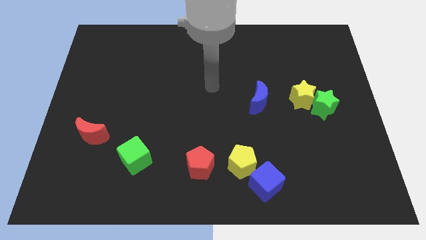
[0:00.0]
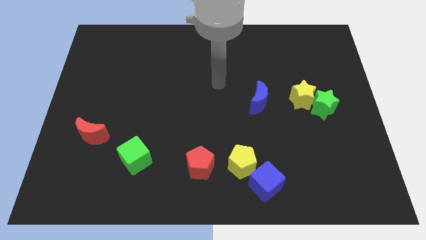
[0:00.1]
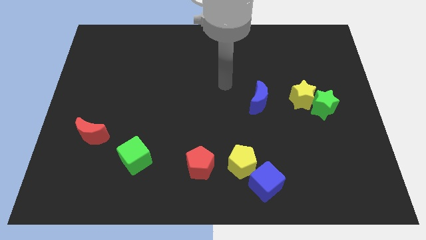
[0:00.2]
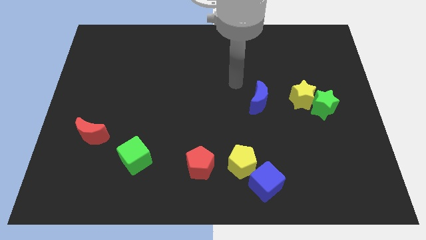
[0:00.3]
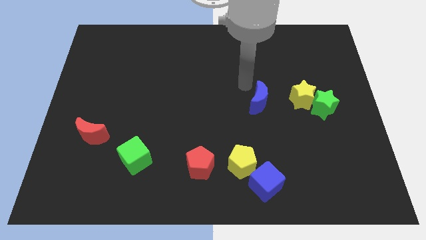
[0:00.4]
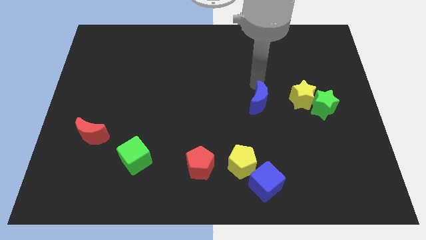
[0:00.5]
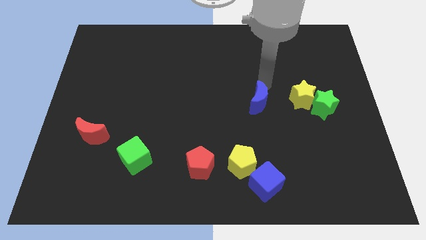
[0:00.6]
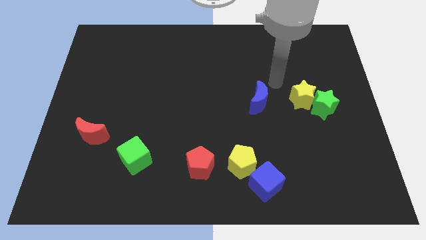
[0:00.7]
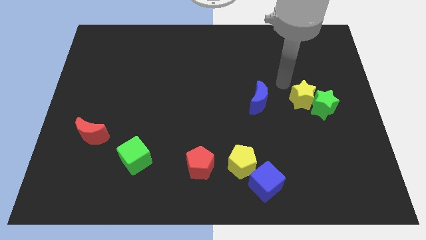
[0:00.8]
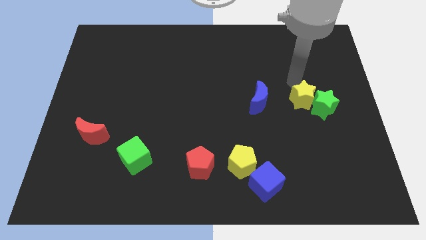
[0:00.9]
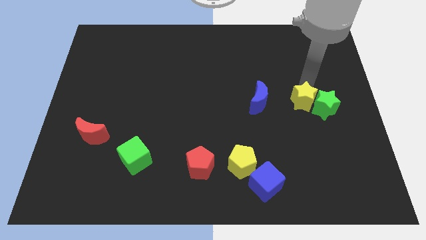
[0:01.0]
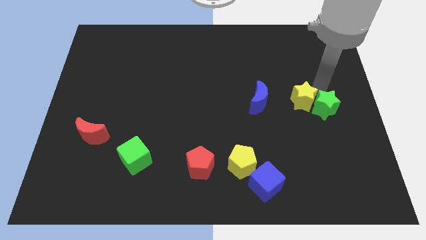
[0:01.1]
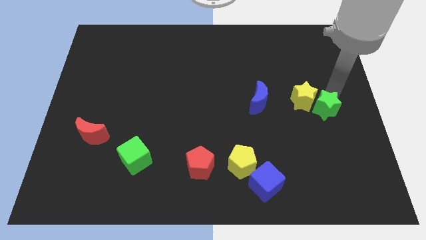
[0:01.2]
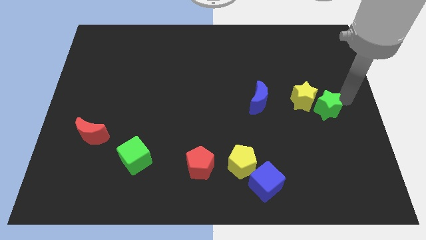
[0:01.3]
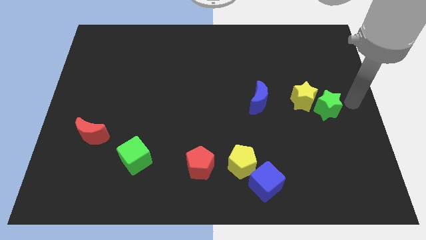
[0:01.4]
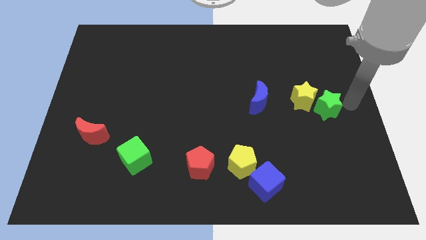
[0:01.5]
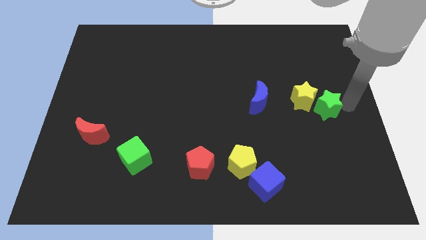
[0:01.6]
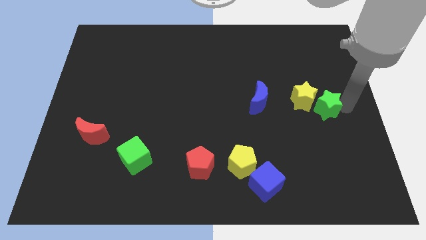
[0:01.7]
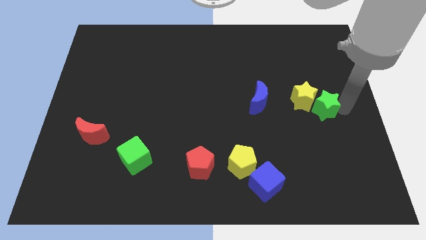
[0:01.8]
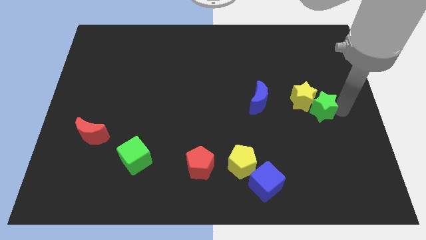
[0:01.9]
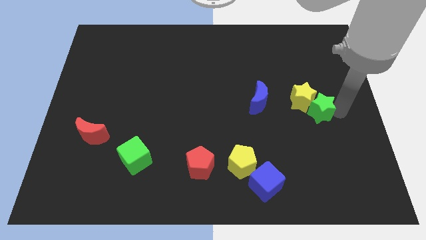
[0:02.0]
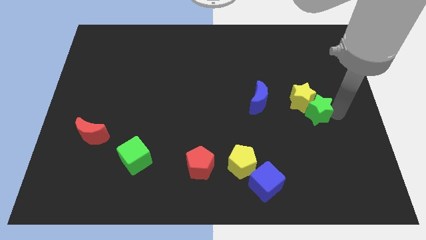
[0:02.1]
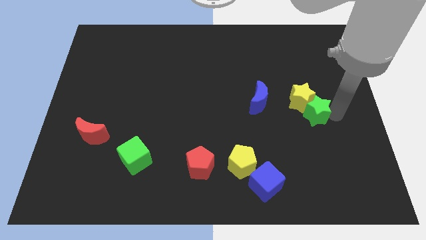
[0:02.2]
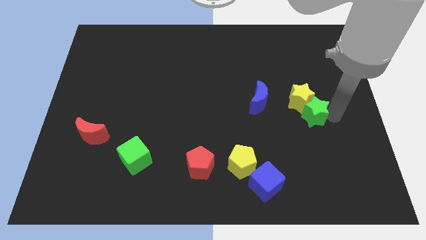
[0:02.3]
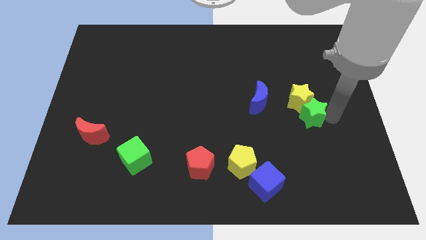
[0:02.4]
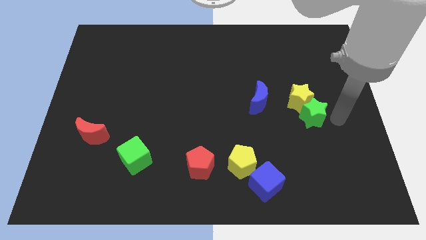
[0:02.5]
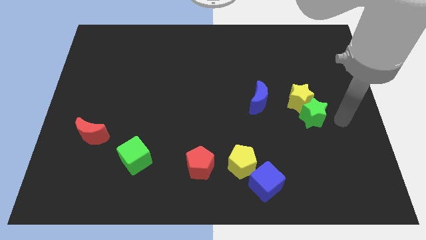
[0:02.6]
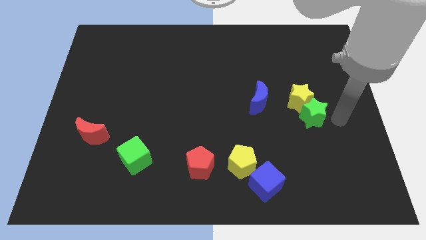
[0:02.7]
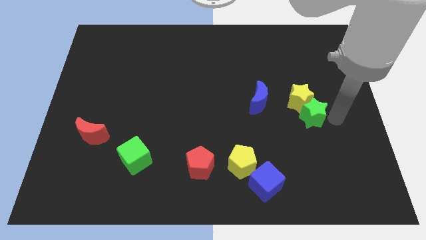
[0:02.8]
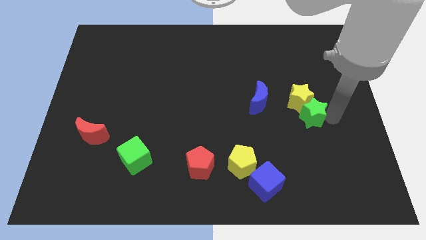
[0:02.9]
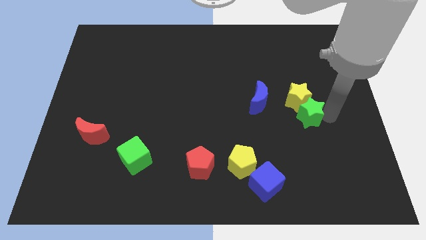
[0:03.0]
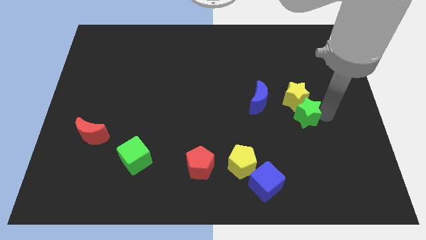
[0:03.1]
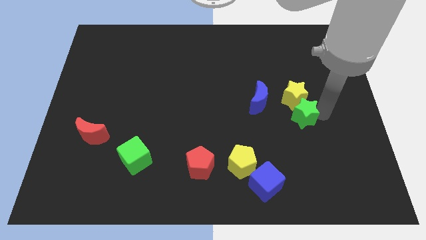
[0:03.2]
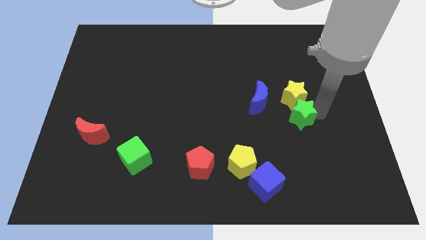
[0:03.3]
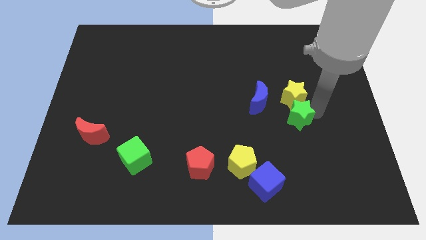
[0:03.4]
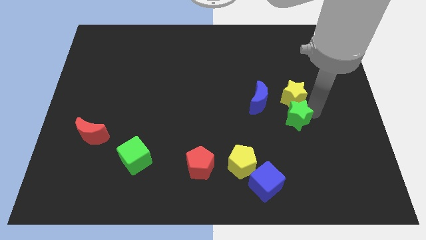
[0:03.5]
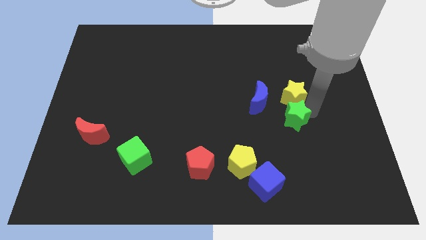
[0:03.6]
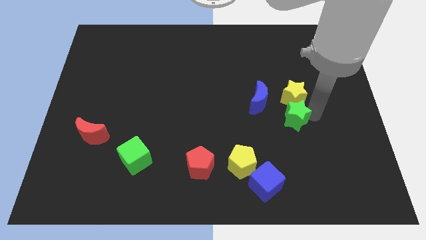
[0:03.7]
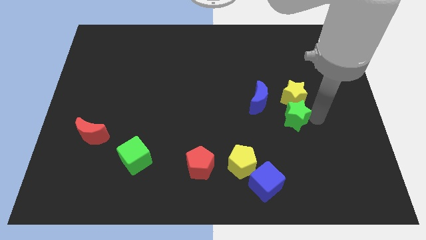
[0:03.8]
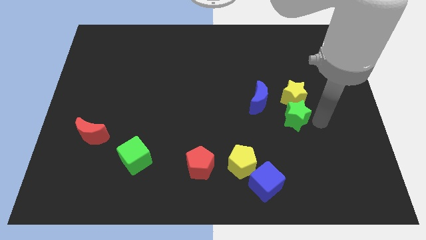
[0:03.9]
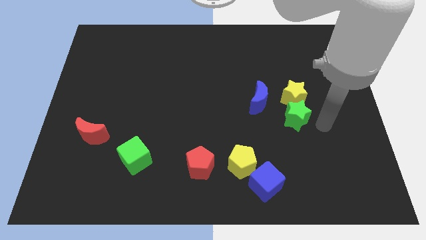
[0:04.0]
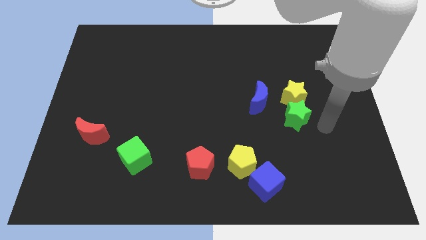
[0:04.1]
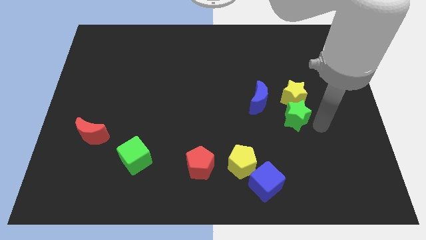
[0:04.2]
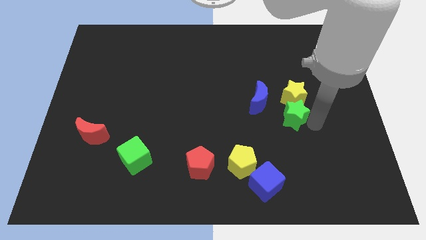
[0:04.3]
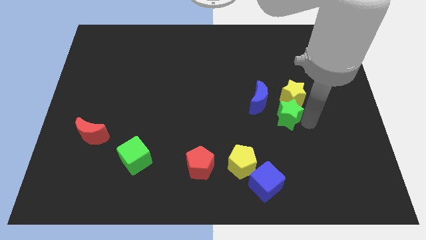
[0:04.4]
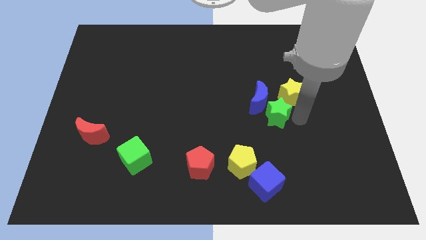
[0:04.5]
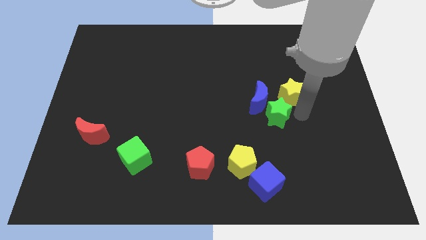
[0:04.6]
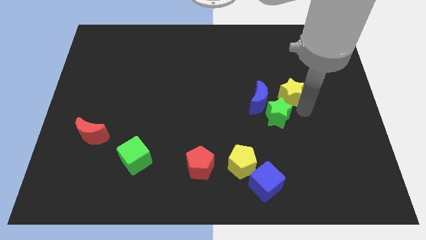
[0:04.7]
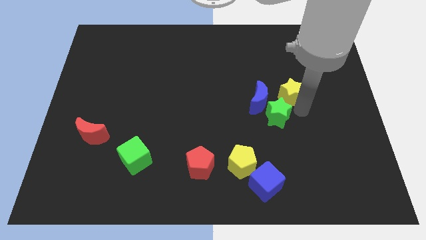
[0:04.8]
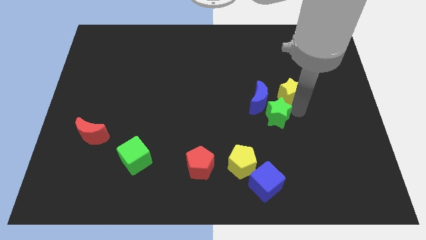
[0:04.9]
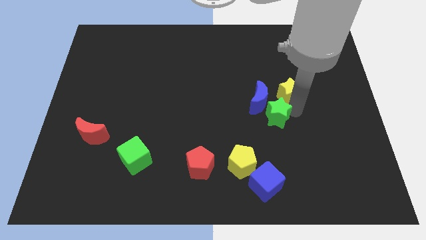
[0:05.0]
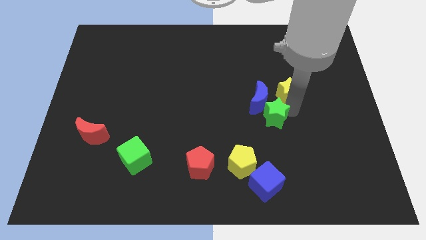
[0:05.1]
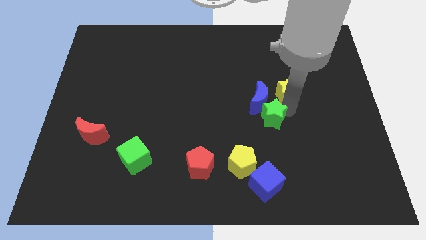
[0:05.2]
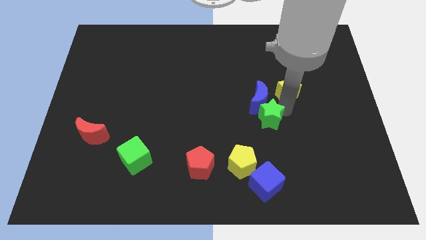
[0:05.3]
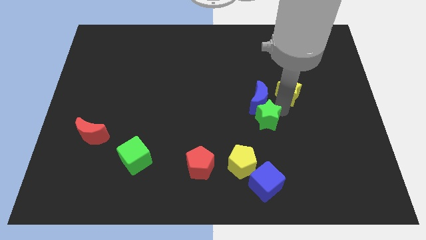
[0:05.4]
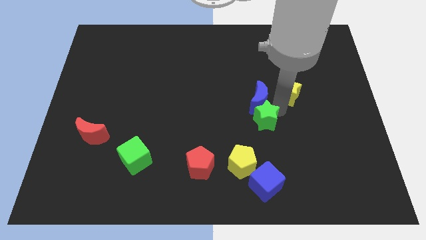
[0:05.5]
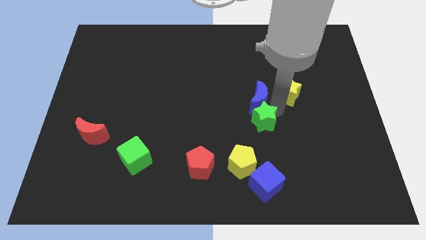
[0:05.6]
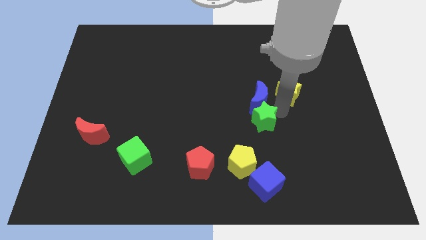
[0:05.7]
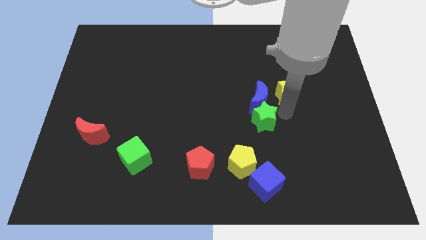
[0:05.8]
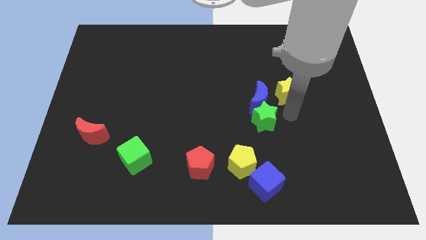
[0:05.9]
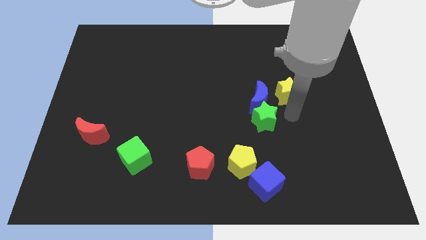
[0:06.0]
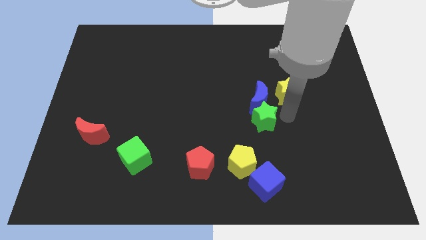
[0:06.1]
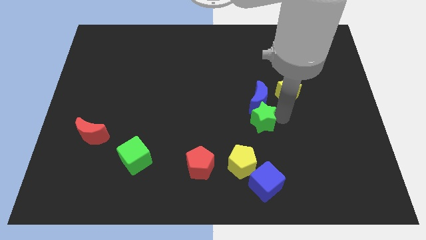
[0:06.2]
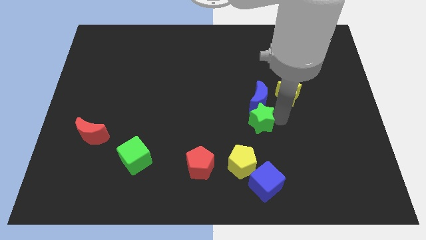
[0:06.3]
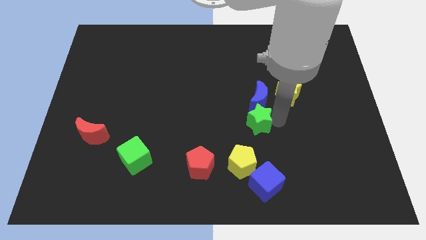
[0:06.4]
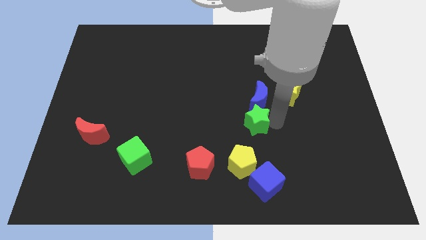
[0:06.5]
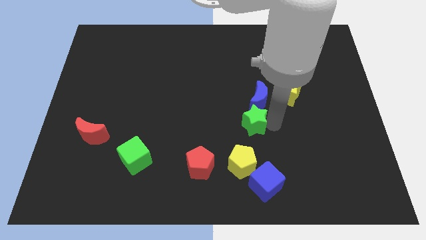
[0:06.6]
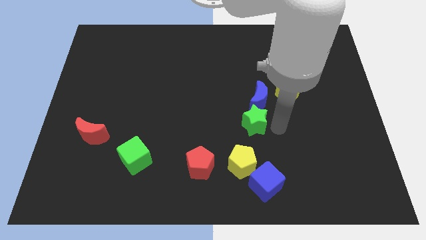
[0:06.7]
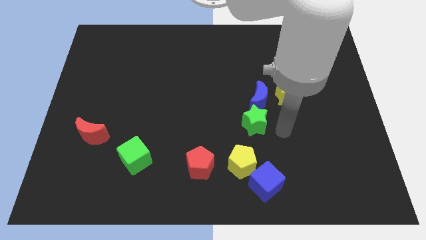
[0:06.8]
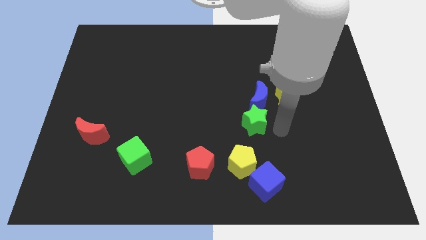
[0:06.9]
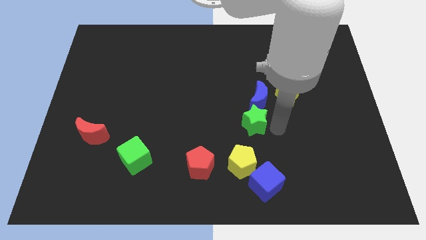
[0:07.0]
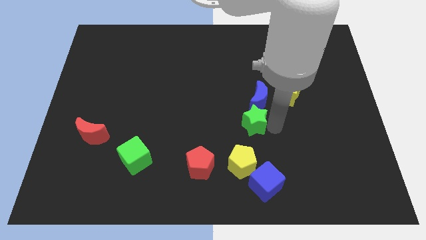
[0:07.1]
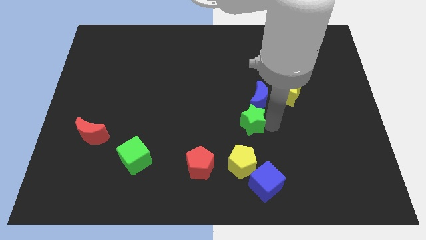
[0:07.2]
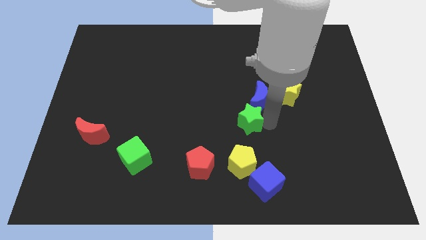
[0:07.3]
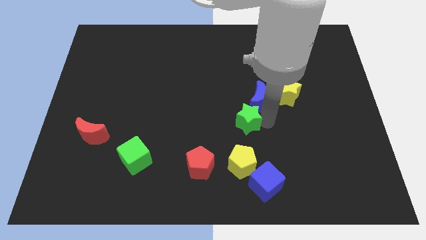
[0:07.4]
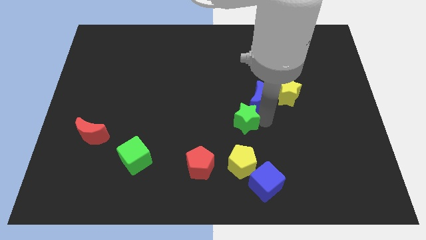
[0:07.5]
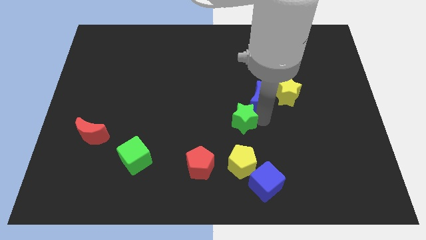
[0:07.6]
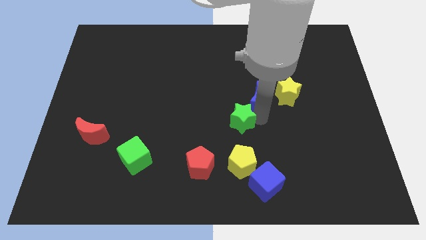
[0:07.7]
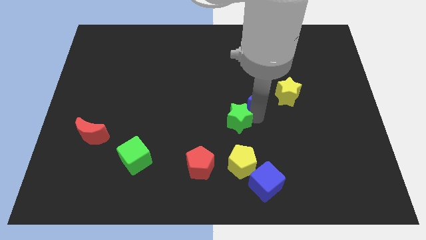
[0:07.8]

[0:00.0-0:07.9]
push the green star to the left
